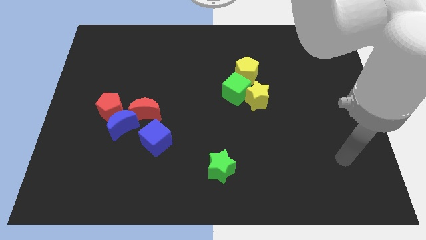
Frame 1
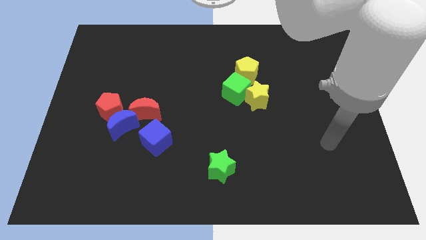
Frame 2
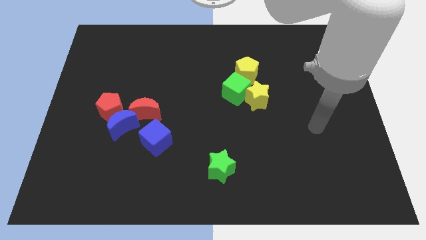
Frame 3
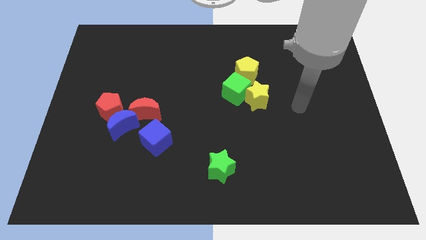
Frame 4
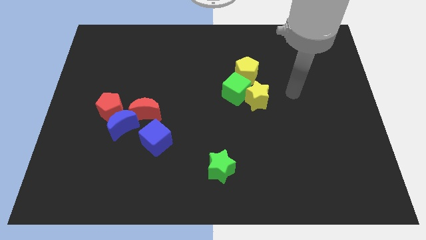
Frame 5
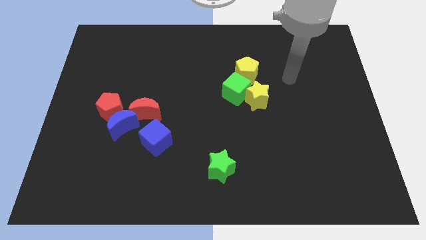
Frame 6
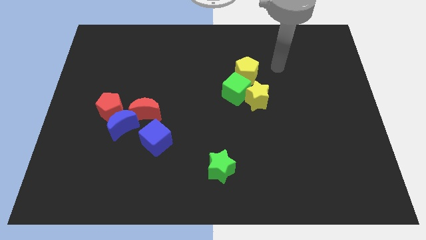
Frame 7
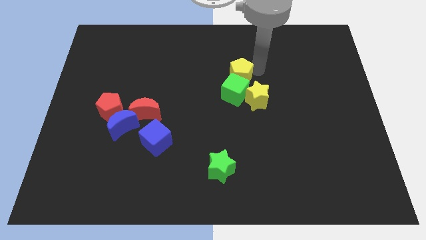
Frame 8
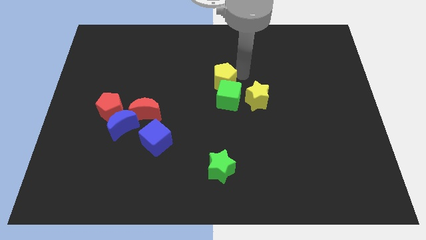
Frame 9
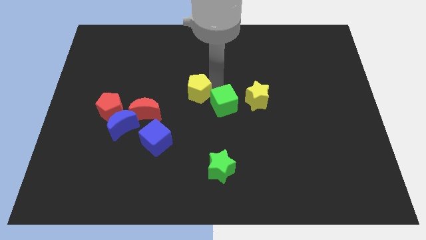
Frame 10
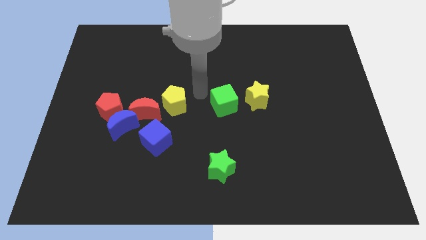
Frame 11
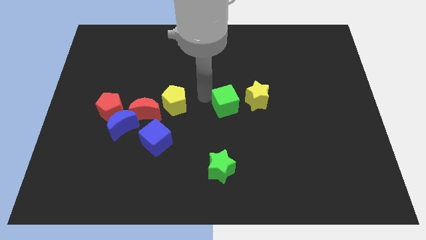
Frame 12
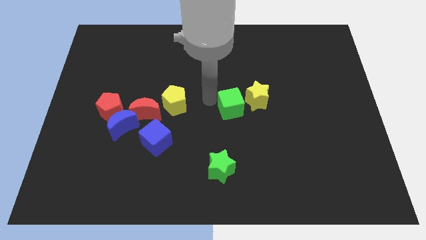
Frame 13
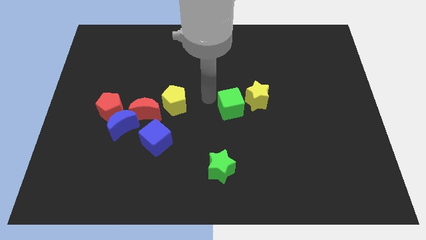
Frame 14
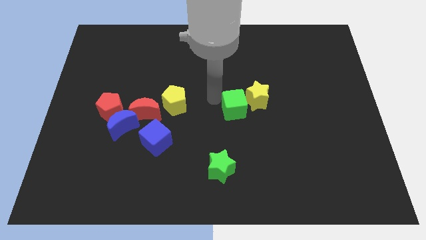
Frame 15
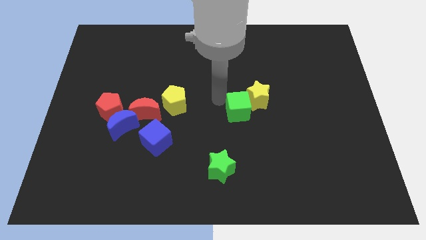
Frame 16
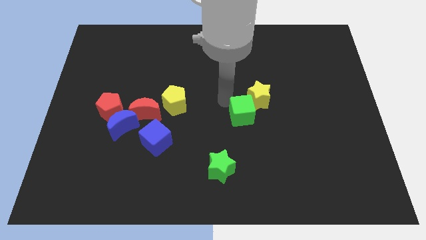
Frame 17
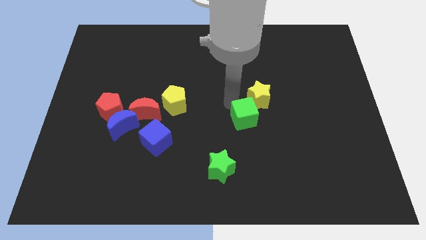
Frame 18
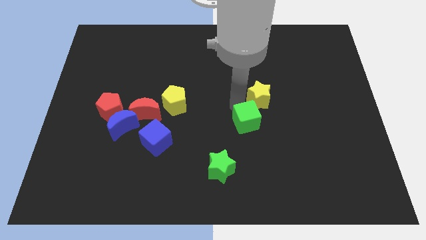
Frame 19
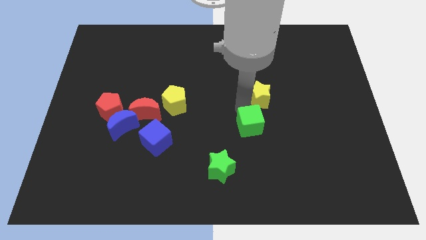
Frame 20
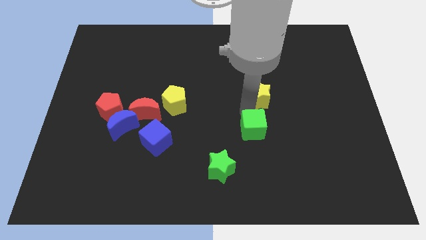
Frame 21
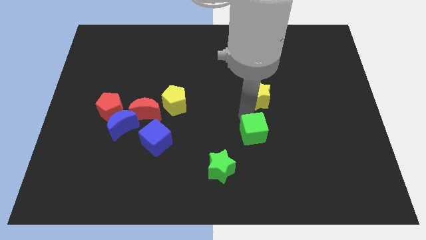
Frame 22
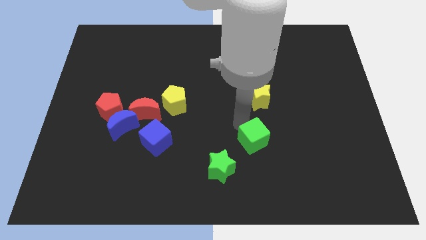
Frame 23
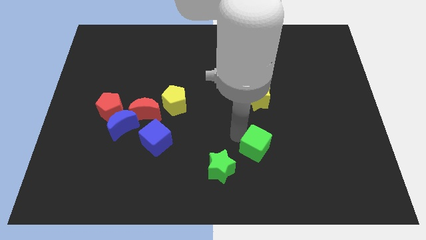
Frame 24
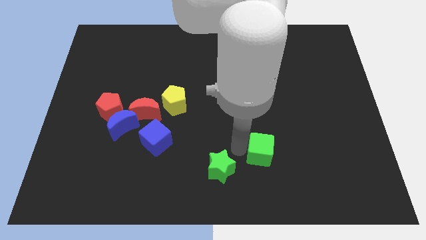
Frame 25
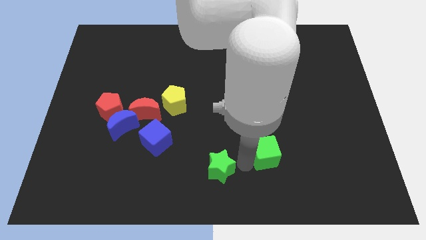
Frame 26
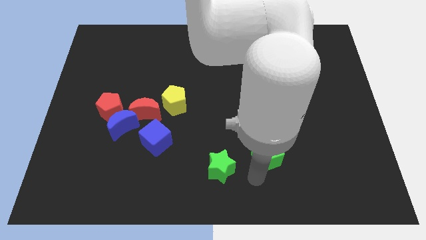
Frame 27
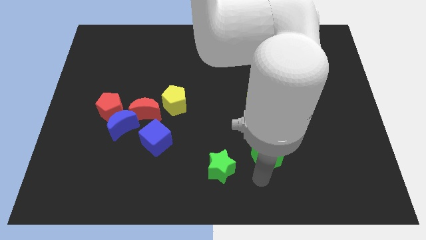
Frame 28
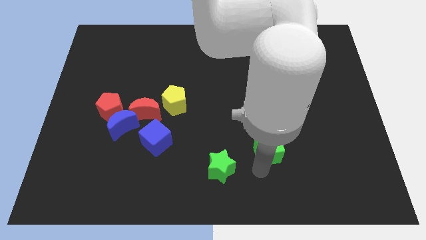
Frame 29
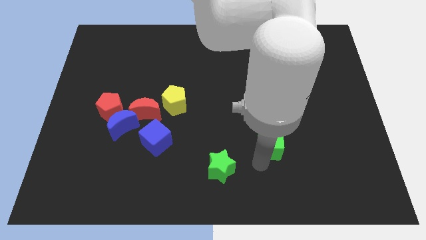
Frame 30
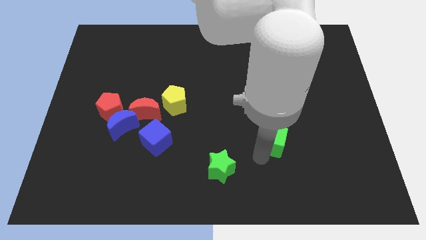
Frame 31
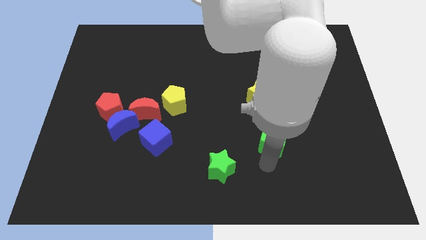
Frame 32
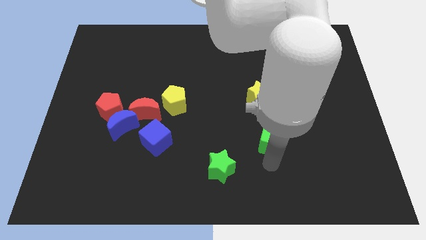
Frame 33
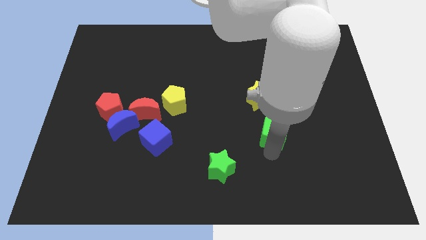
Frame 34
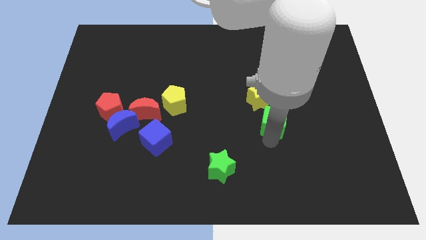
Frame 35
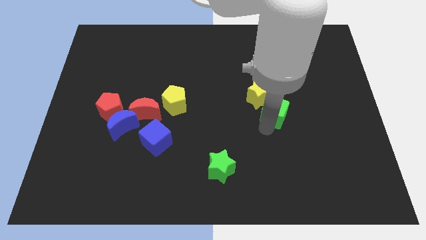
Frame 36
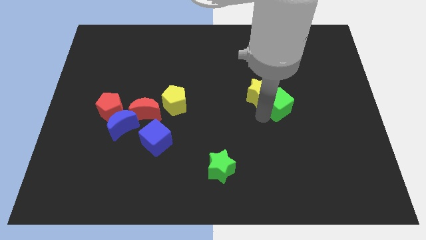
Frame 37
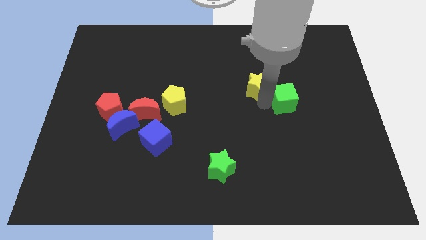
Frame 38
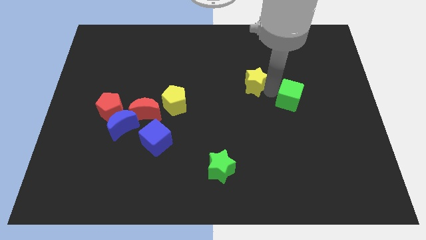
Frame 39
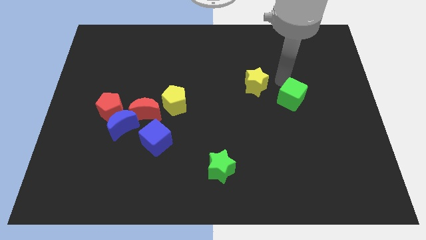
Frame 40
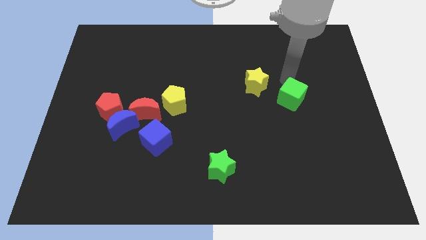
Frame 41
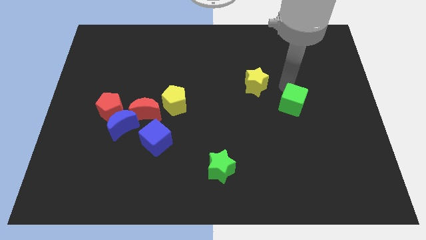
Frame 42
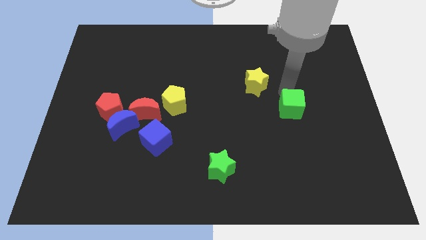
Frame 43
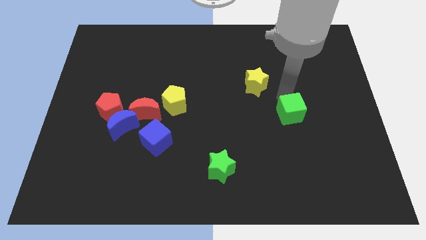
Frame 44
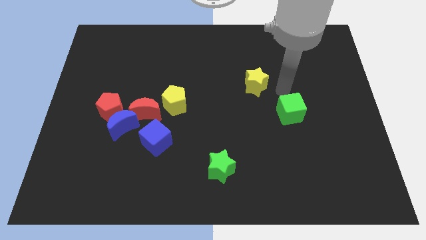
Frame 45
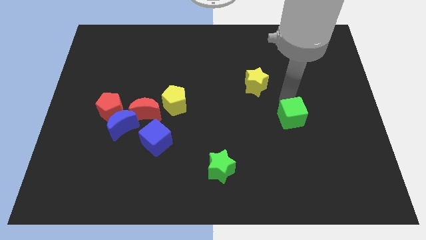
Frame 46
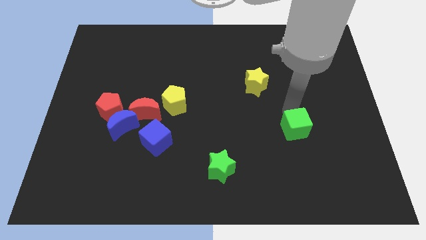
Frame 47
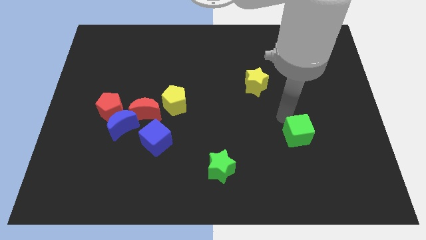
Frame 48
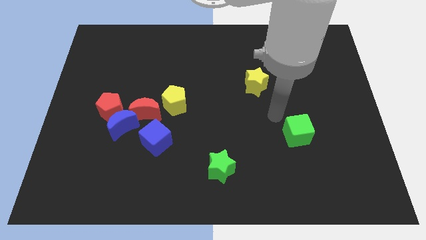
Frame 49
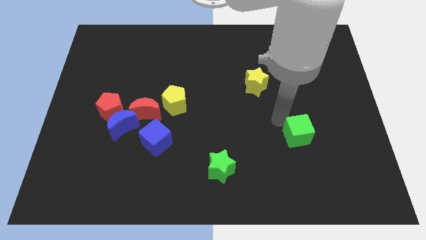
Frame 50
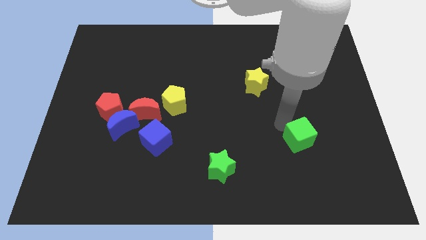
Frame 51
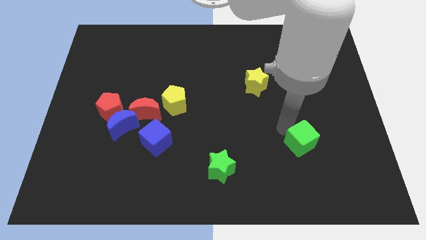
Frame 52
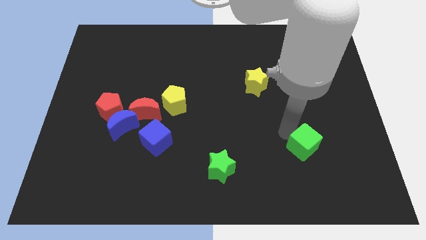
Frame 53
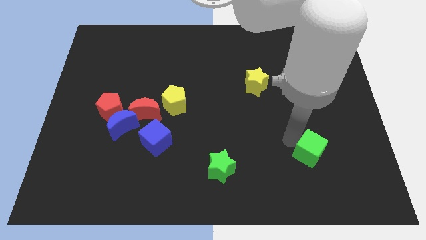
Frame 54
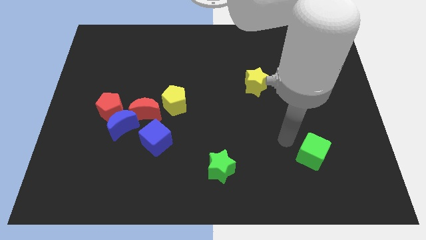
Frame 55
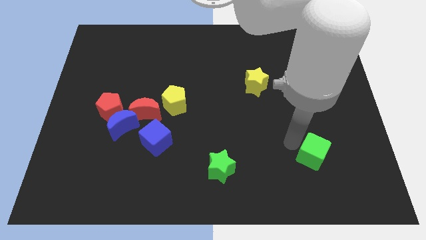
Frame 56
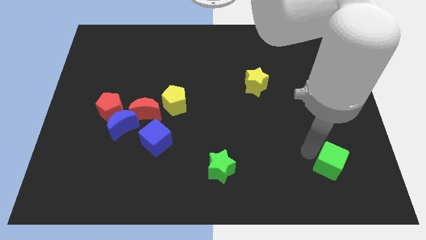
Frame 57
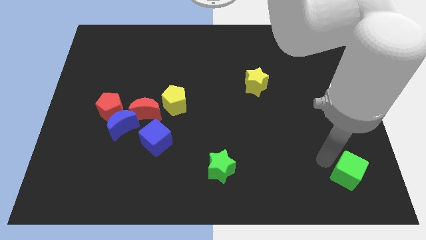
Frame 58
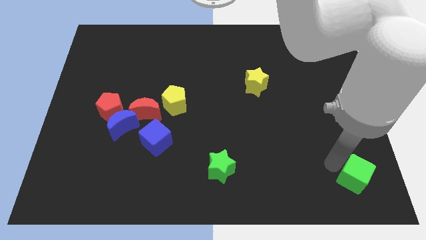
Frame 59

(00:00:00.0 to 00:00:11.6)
push the green cube to the lower right corner
